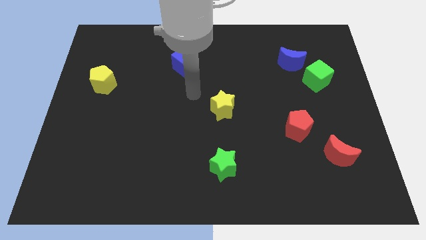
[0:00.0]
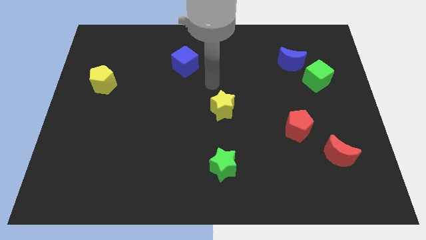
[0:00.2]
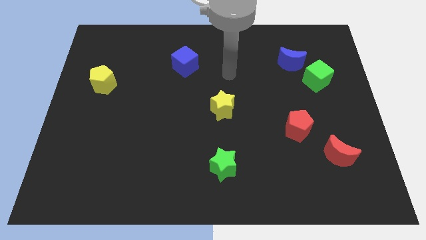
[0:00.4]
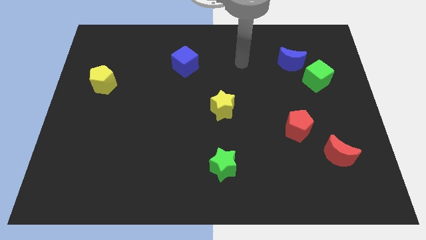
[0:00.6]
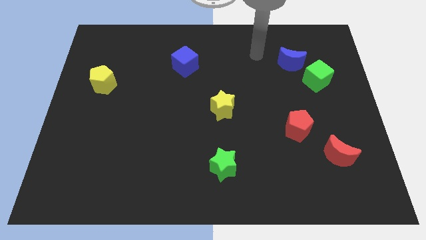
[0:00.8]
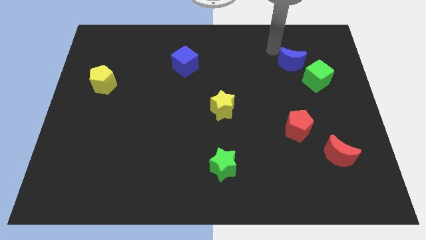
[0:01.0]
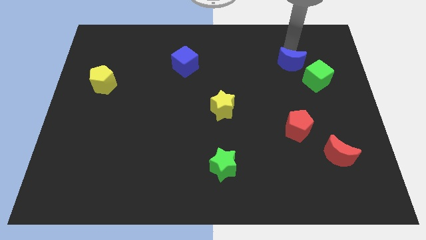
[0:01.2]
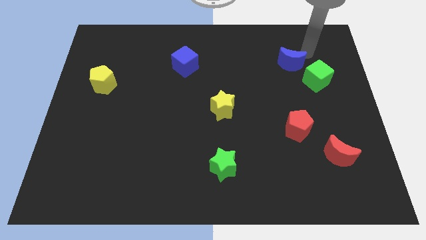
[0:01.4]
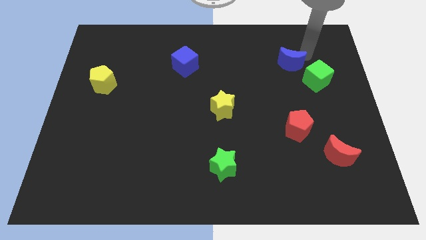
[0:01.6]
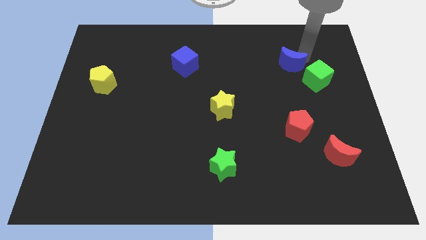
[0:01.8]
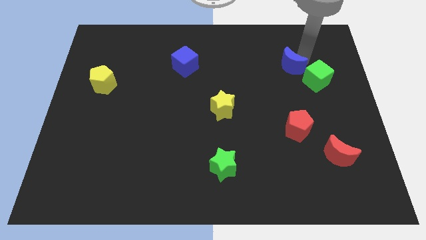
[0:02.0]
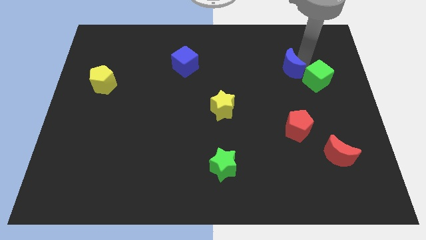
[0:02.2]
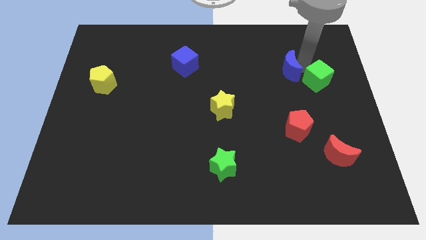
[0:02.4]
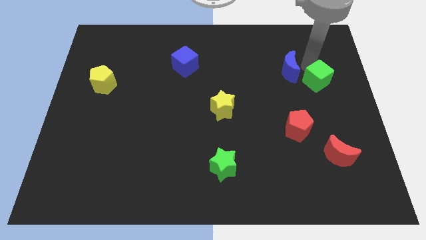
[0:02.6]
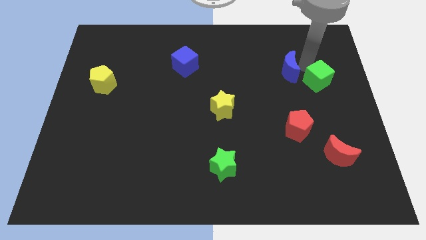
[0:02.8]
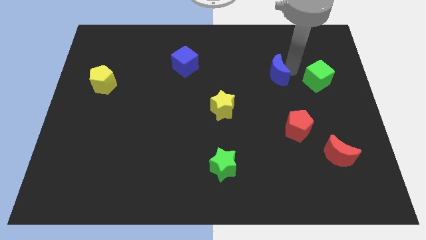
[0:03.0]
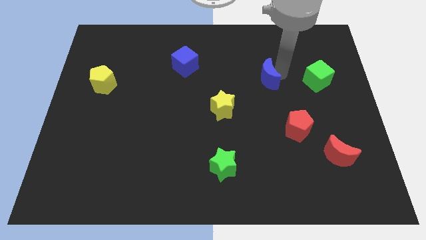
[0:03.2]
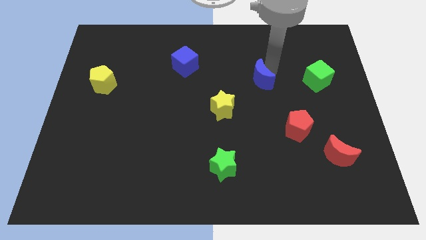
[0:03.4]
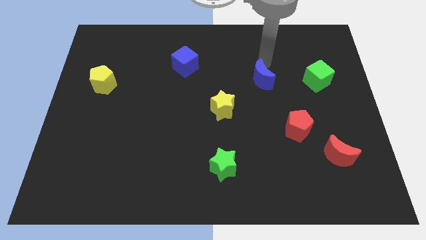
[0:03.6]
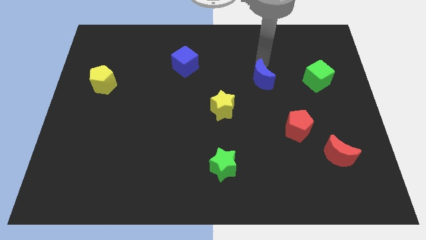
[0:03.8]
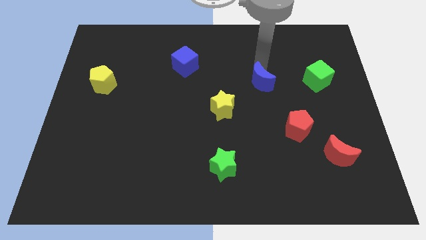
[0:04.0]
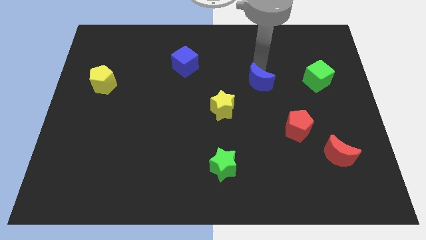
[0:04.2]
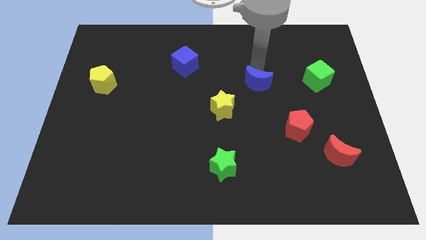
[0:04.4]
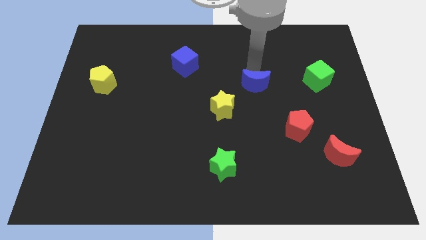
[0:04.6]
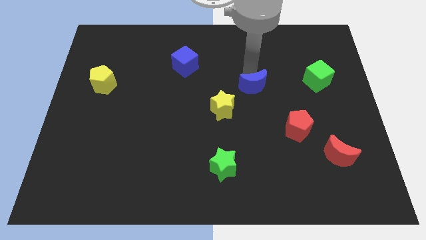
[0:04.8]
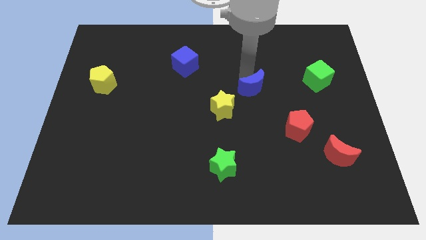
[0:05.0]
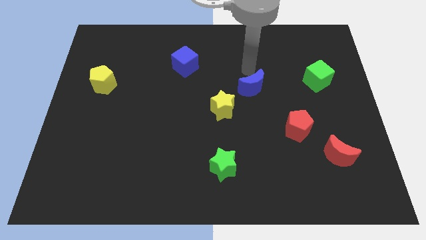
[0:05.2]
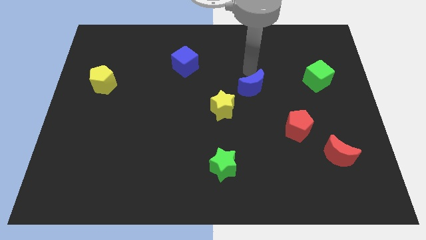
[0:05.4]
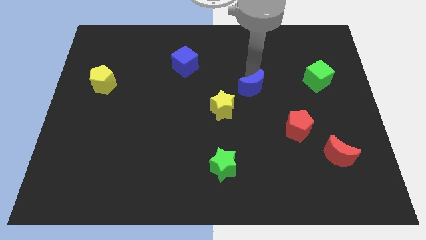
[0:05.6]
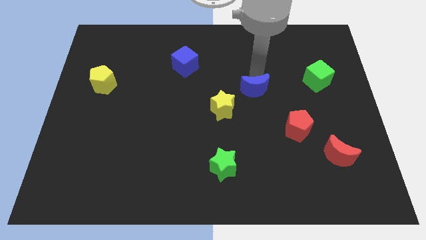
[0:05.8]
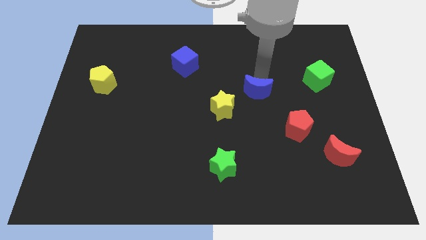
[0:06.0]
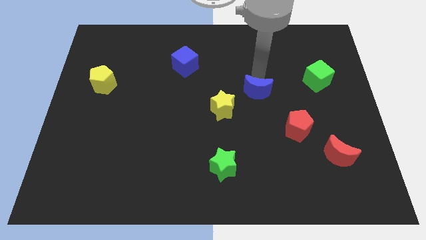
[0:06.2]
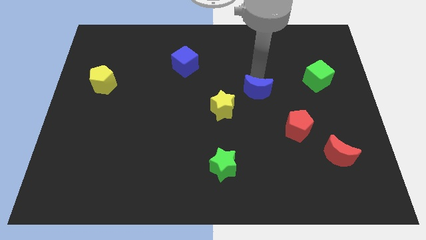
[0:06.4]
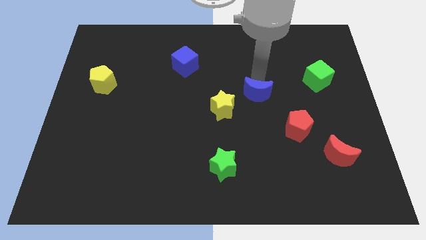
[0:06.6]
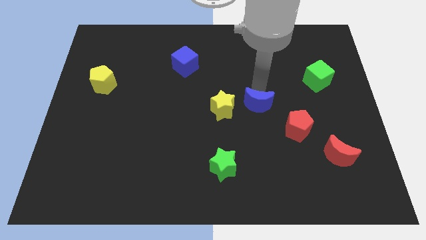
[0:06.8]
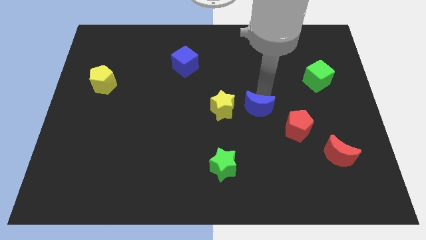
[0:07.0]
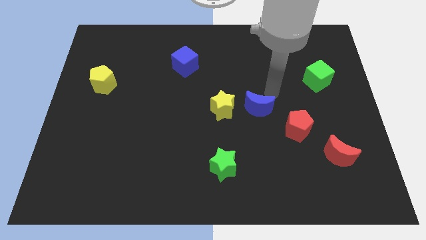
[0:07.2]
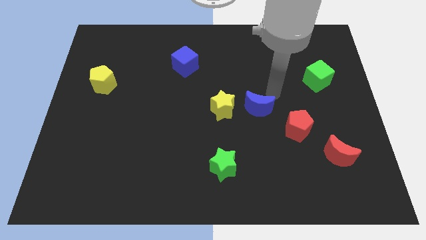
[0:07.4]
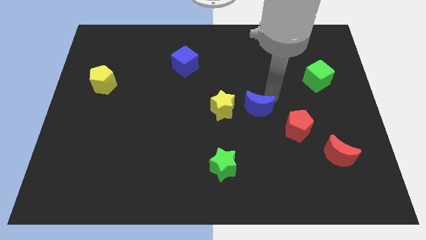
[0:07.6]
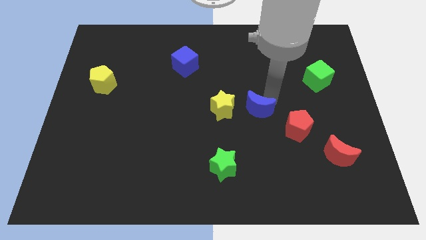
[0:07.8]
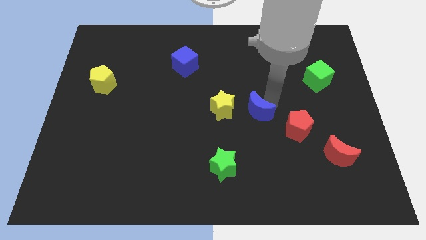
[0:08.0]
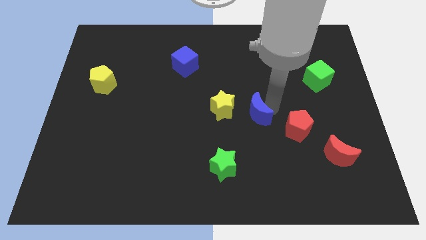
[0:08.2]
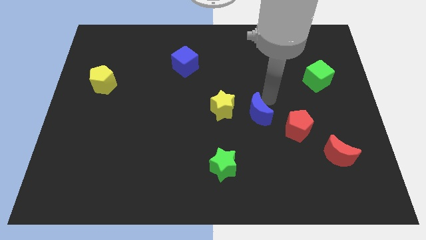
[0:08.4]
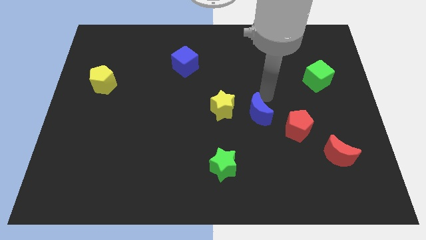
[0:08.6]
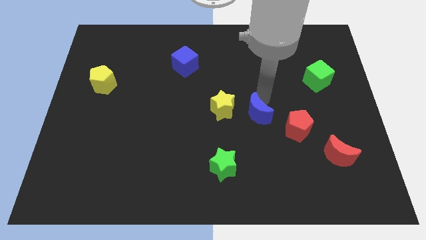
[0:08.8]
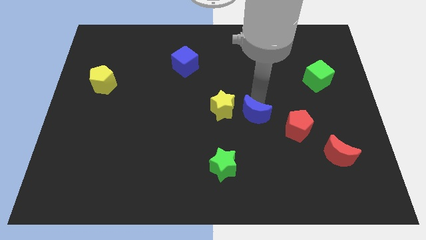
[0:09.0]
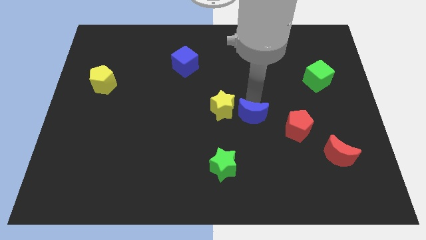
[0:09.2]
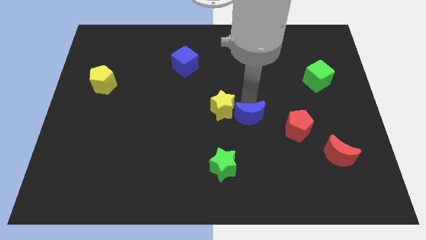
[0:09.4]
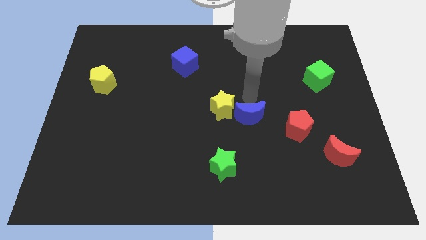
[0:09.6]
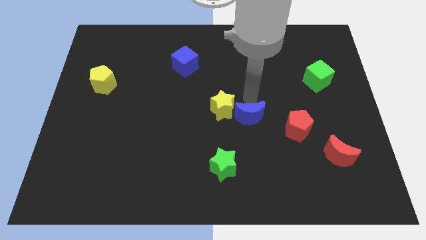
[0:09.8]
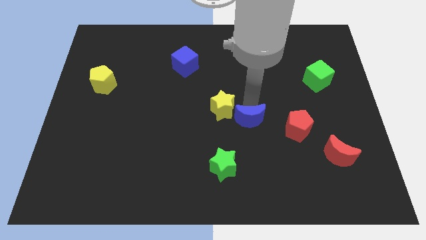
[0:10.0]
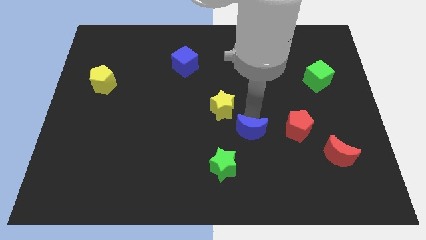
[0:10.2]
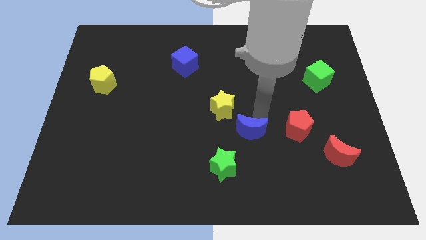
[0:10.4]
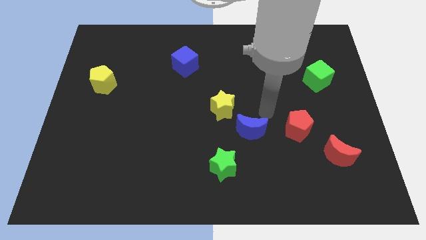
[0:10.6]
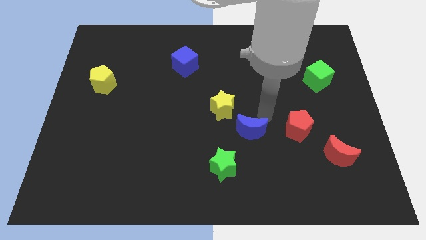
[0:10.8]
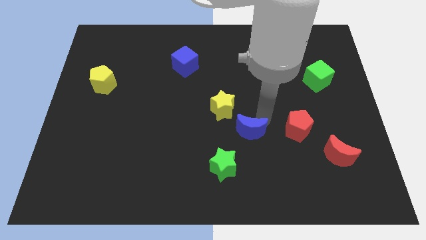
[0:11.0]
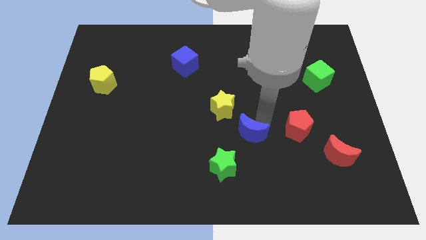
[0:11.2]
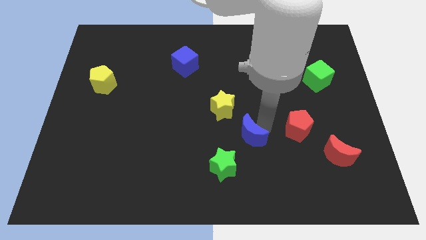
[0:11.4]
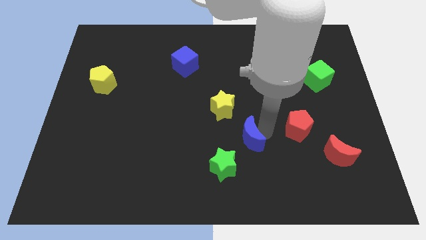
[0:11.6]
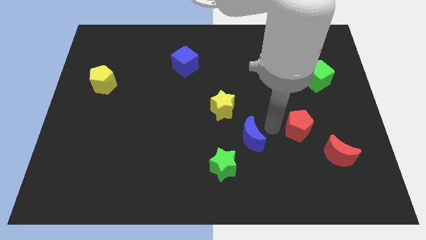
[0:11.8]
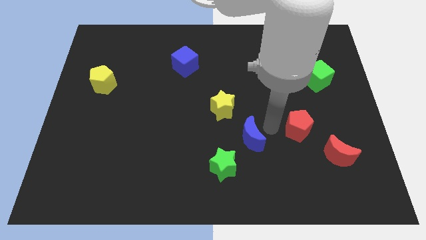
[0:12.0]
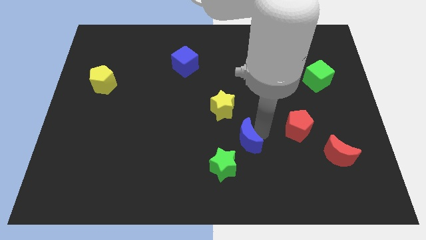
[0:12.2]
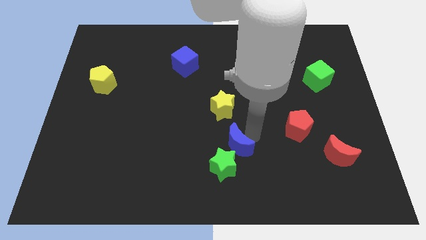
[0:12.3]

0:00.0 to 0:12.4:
move the blue moon next to the green star

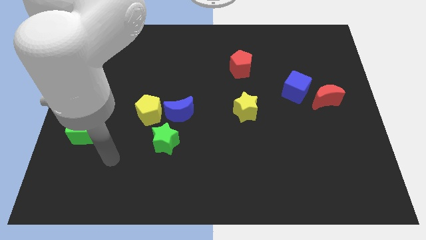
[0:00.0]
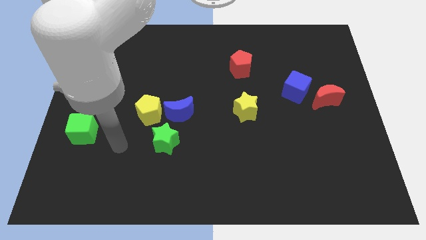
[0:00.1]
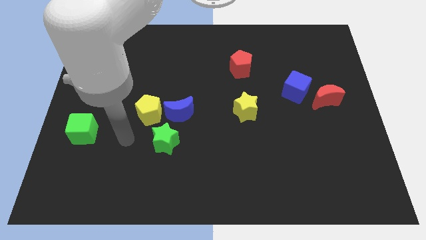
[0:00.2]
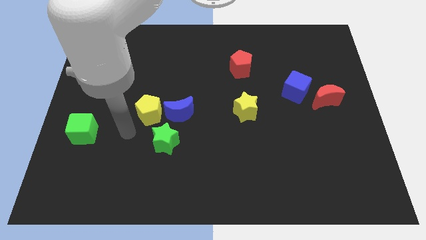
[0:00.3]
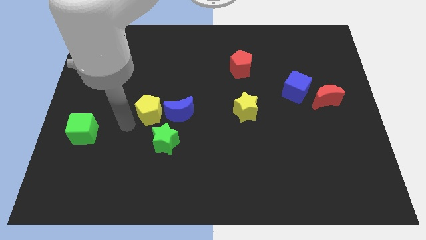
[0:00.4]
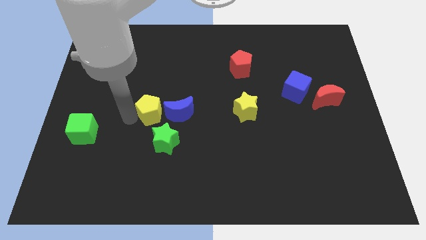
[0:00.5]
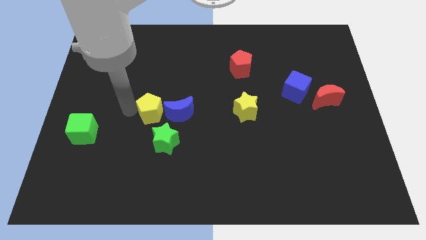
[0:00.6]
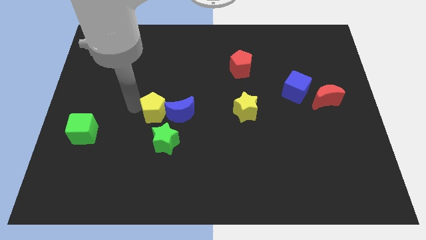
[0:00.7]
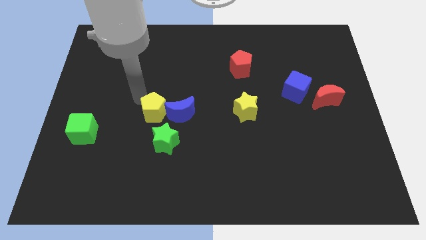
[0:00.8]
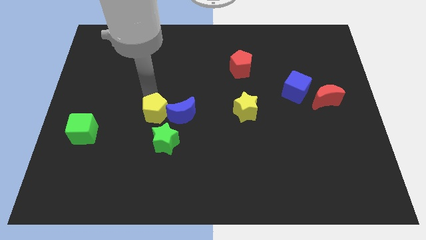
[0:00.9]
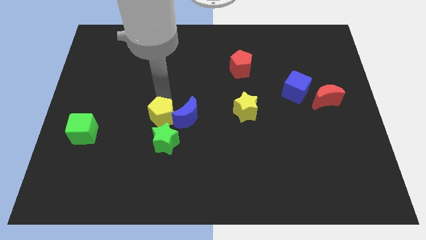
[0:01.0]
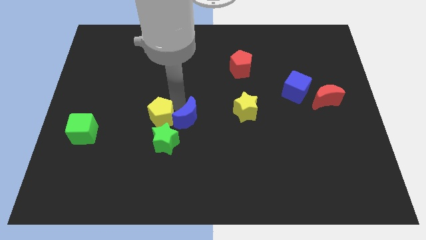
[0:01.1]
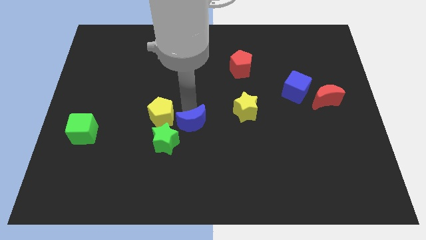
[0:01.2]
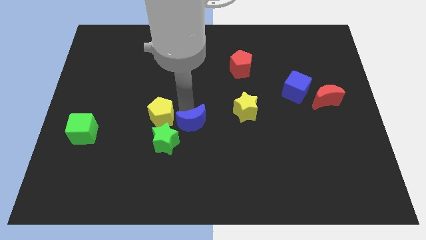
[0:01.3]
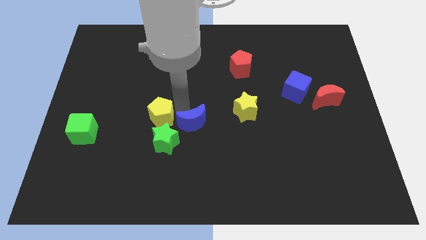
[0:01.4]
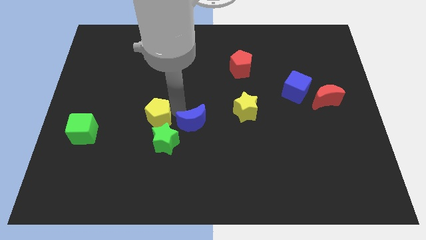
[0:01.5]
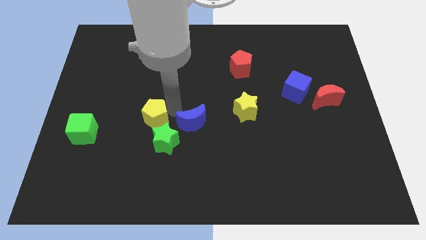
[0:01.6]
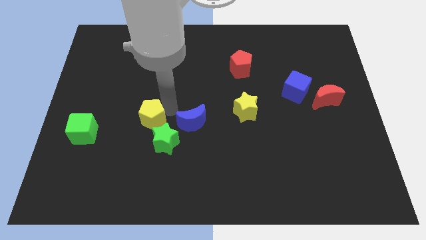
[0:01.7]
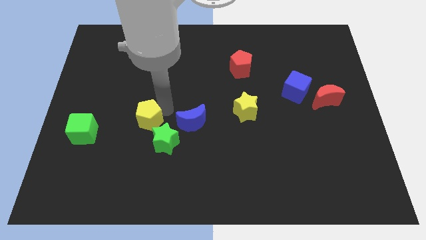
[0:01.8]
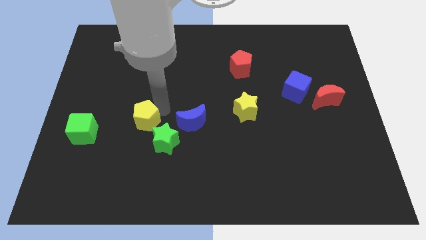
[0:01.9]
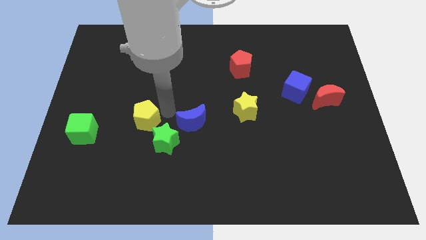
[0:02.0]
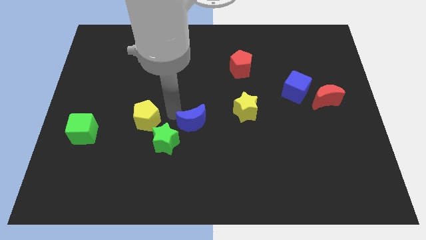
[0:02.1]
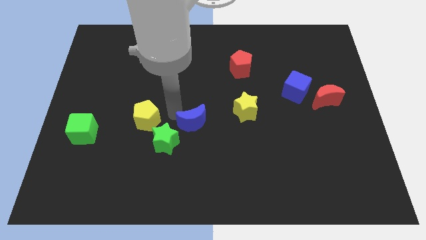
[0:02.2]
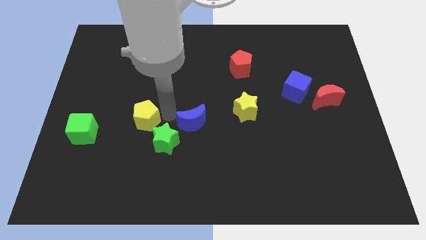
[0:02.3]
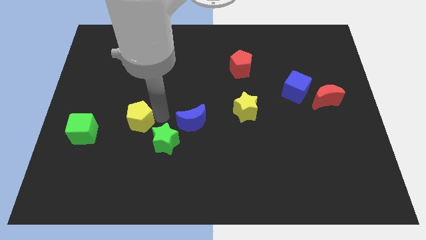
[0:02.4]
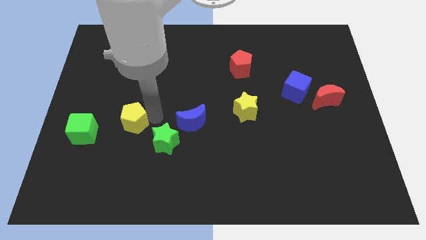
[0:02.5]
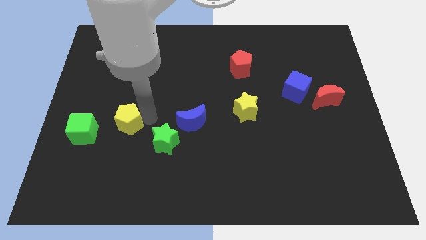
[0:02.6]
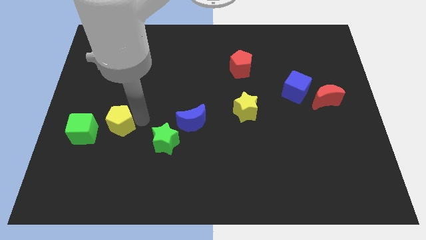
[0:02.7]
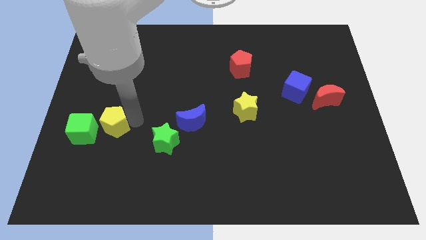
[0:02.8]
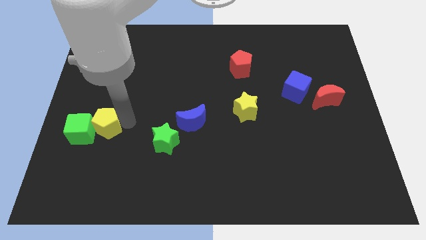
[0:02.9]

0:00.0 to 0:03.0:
move the yellow pentagon next to the green cube
